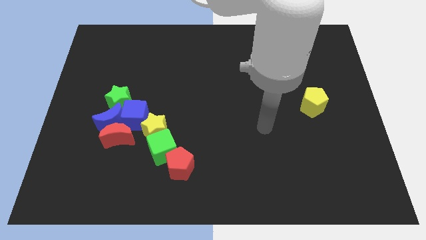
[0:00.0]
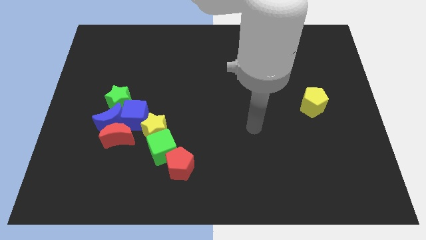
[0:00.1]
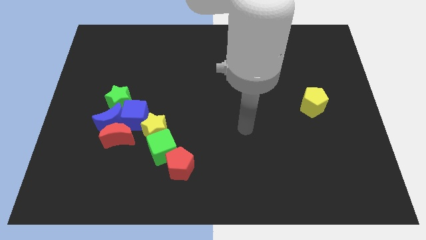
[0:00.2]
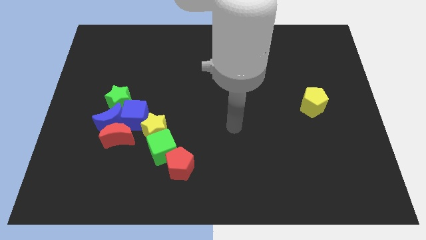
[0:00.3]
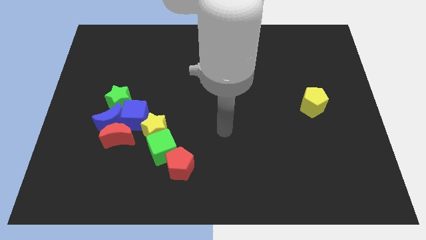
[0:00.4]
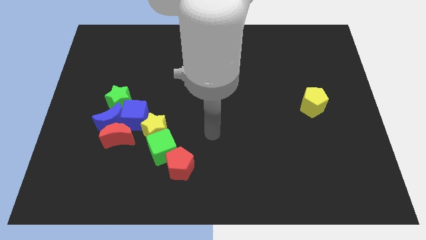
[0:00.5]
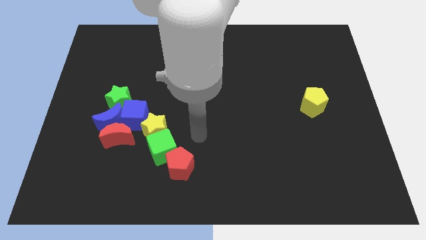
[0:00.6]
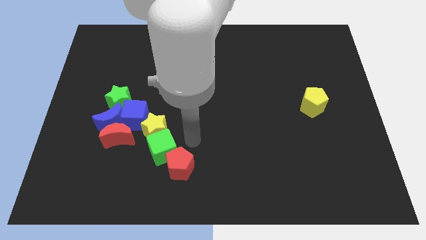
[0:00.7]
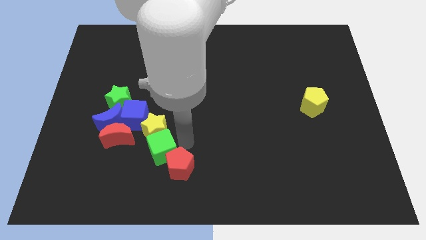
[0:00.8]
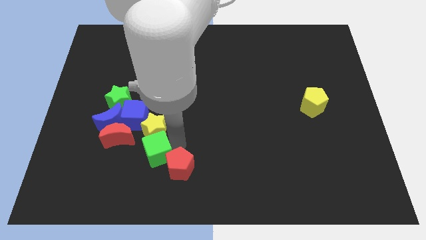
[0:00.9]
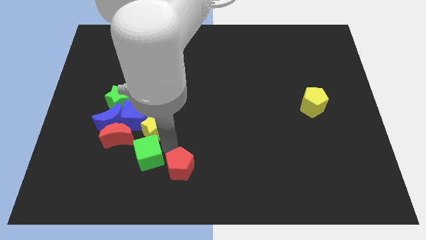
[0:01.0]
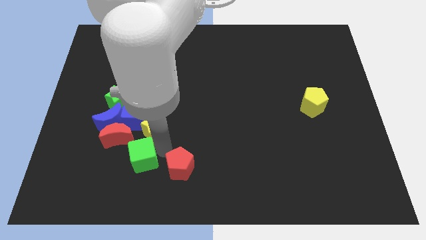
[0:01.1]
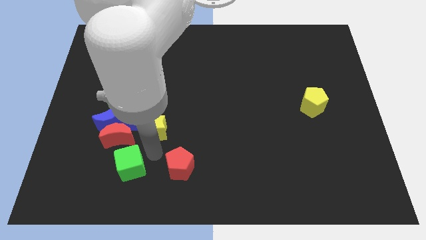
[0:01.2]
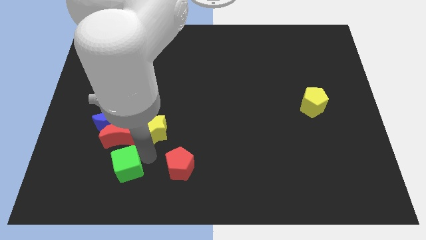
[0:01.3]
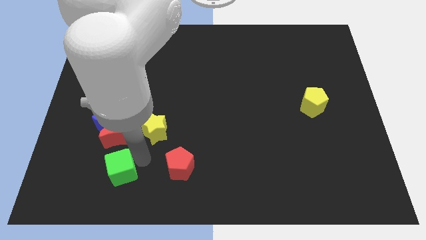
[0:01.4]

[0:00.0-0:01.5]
move the green cube away from the yellow star and red pentagon

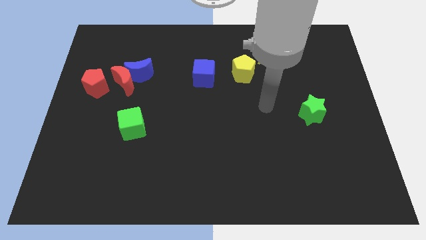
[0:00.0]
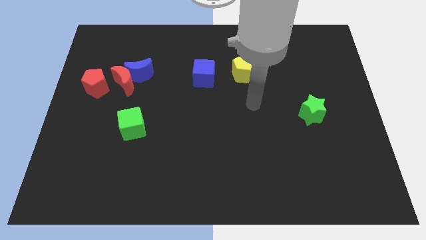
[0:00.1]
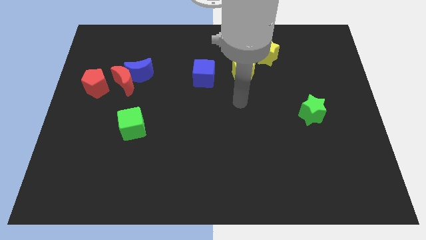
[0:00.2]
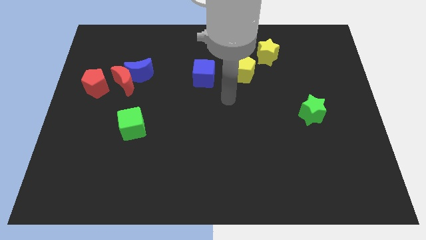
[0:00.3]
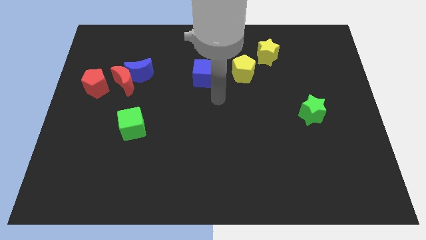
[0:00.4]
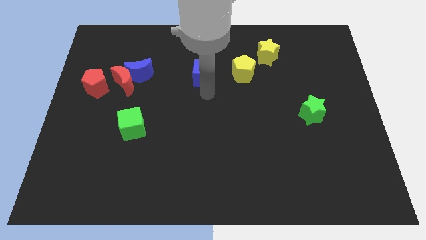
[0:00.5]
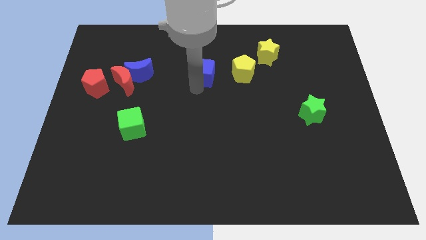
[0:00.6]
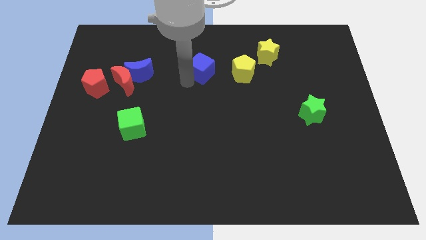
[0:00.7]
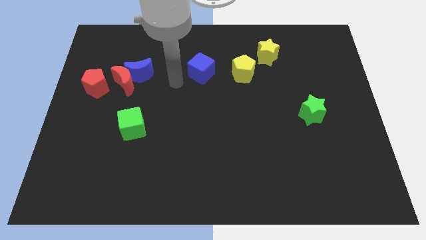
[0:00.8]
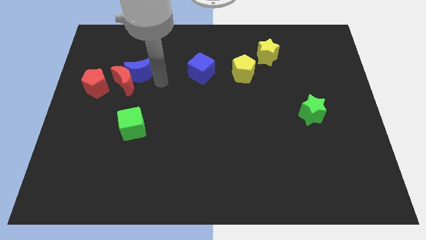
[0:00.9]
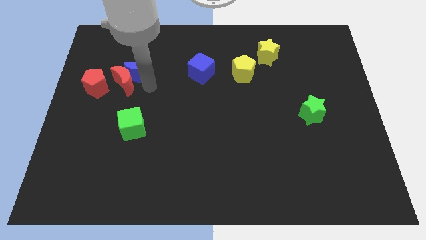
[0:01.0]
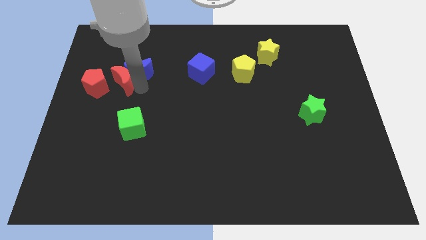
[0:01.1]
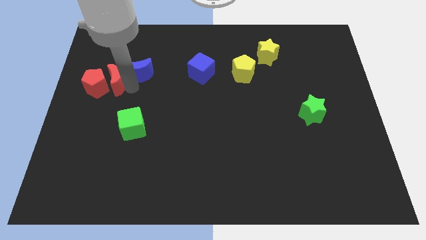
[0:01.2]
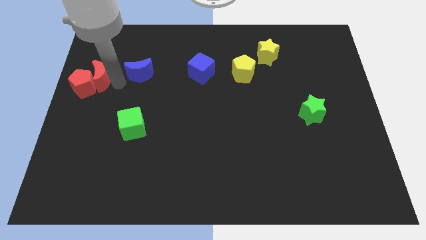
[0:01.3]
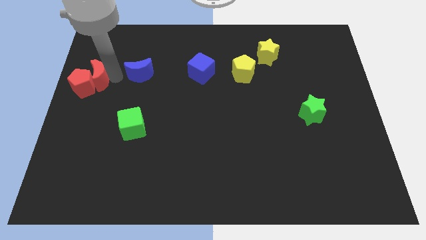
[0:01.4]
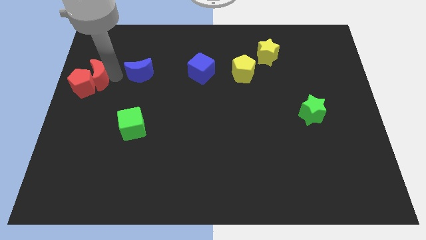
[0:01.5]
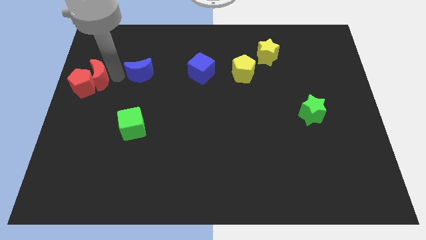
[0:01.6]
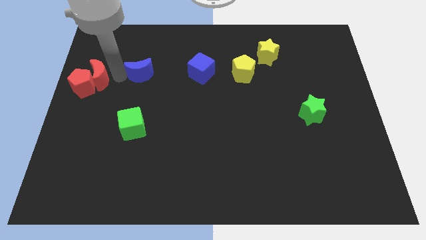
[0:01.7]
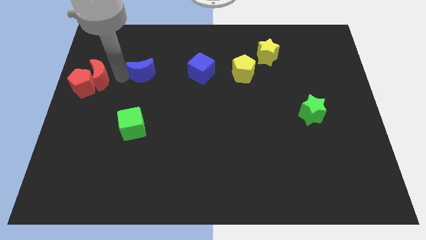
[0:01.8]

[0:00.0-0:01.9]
separate the blue moon from the red moon

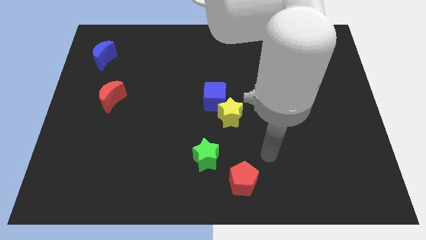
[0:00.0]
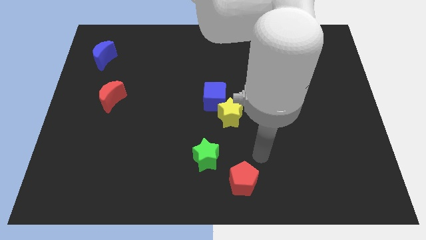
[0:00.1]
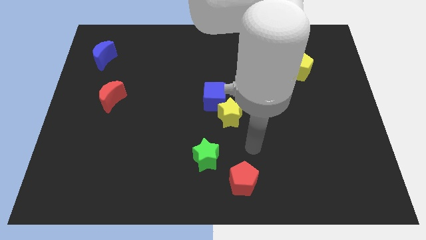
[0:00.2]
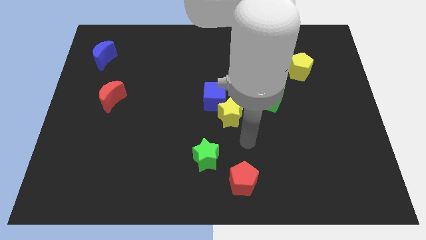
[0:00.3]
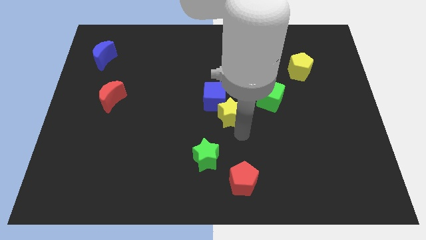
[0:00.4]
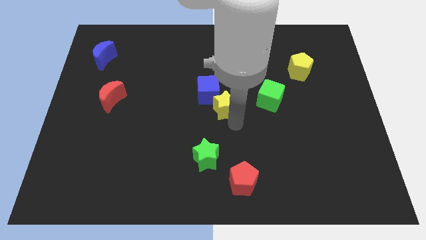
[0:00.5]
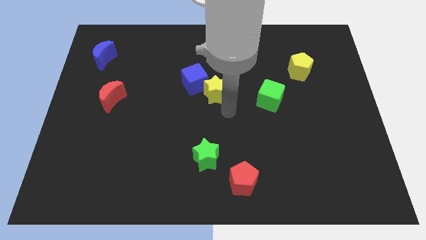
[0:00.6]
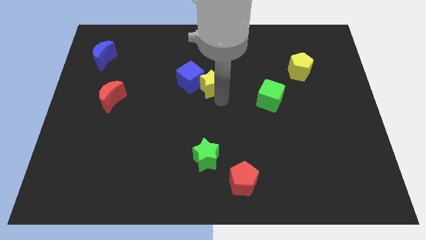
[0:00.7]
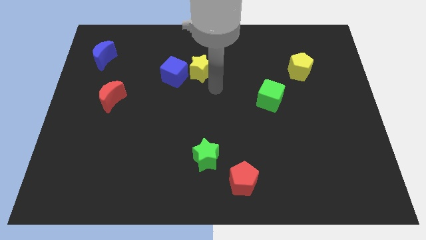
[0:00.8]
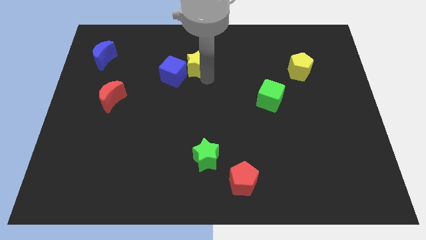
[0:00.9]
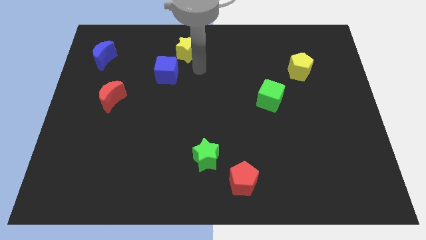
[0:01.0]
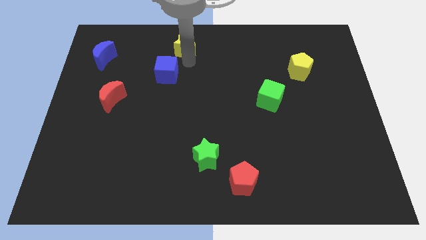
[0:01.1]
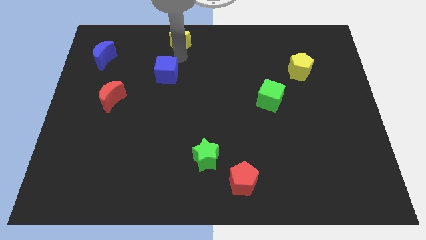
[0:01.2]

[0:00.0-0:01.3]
pull the blue cube apart from the yellow star

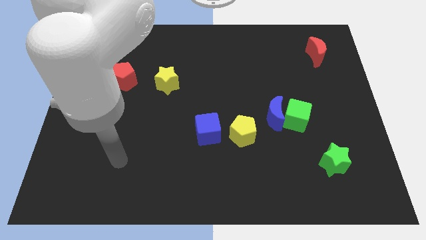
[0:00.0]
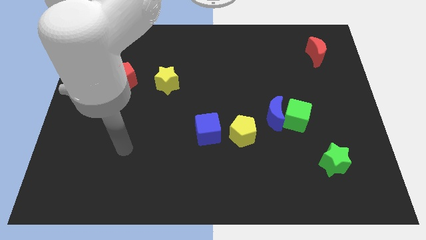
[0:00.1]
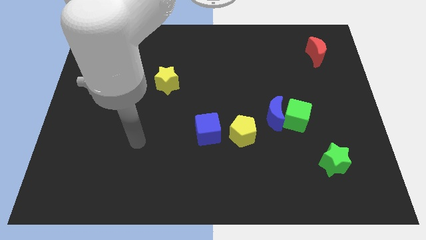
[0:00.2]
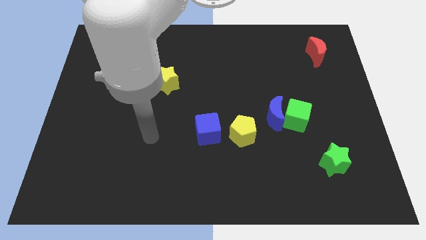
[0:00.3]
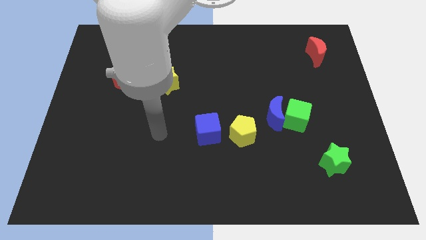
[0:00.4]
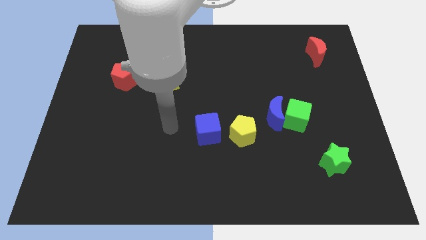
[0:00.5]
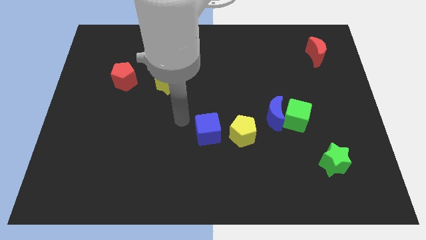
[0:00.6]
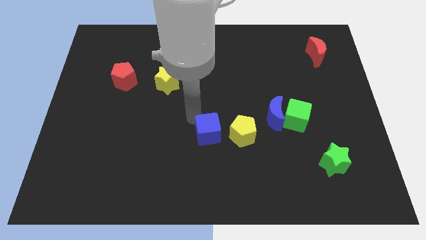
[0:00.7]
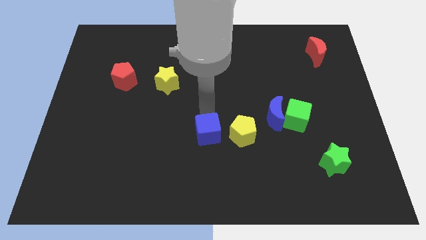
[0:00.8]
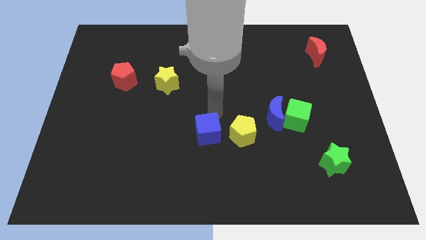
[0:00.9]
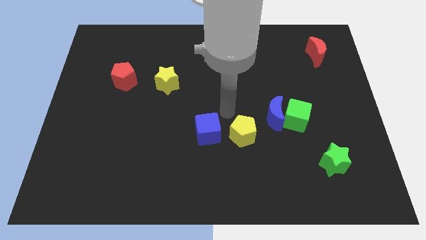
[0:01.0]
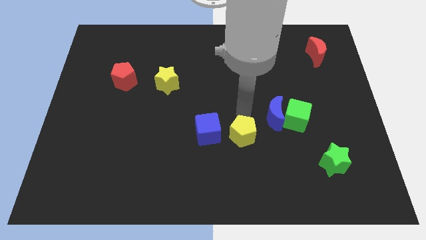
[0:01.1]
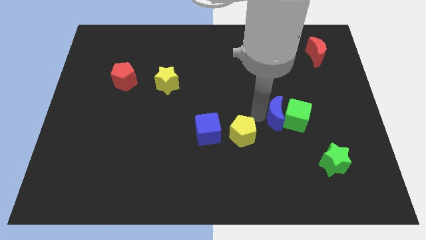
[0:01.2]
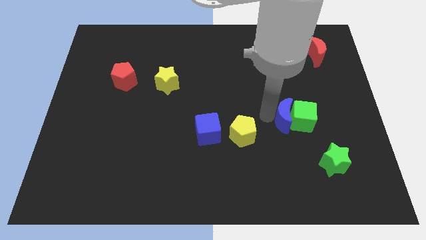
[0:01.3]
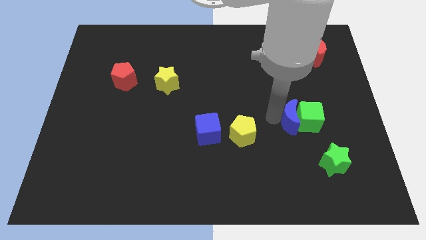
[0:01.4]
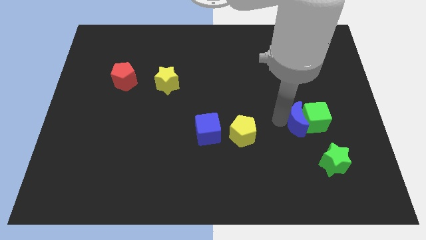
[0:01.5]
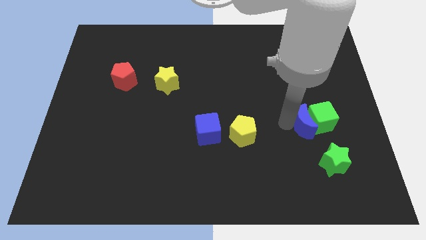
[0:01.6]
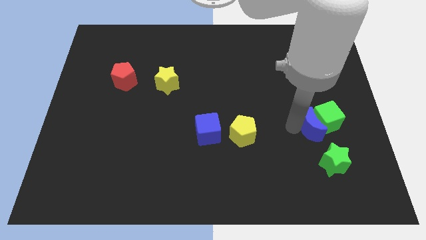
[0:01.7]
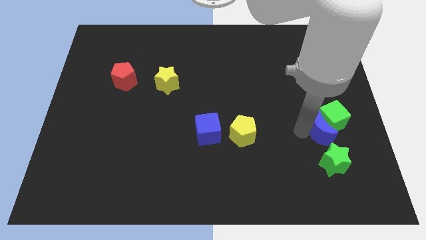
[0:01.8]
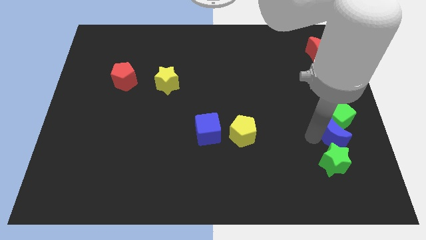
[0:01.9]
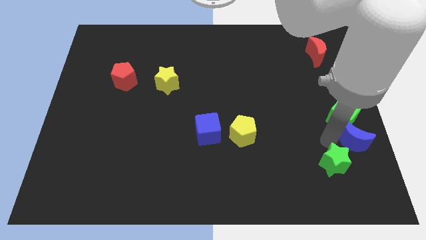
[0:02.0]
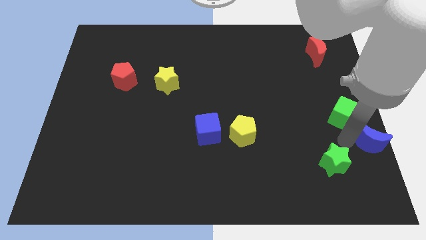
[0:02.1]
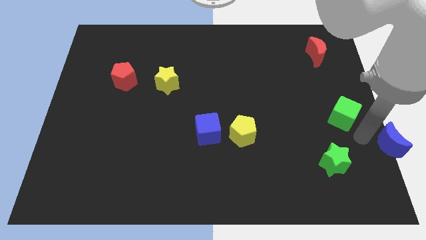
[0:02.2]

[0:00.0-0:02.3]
move the green cube away from the blue moon

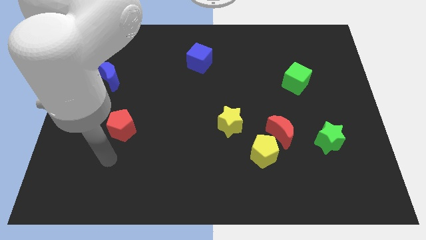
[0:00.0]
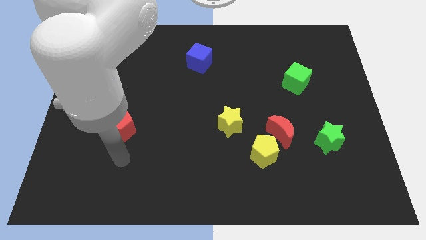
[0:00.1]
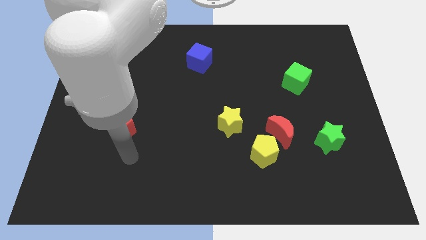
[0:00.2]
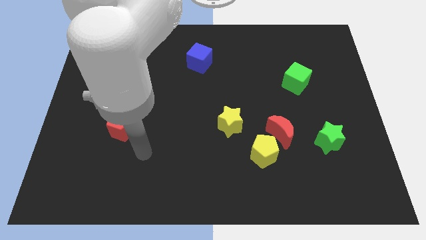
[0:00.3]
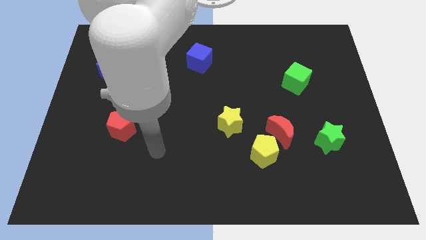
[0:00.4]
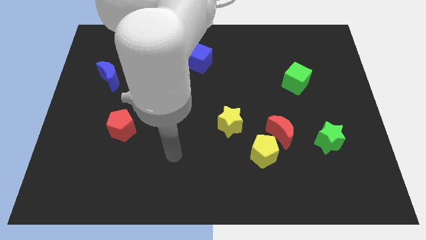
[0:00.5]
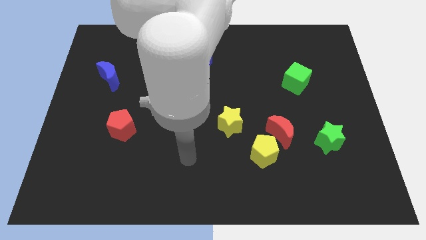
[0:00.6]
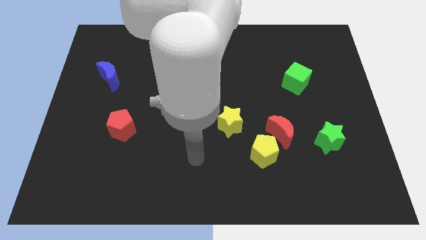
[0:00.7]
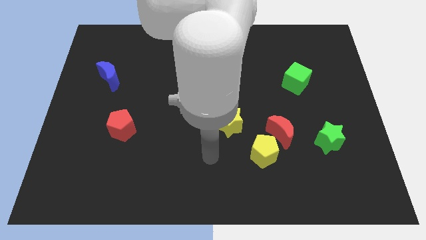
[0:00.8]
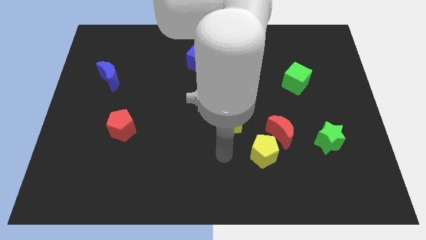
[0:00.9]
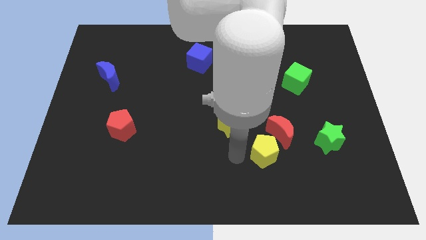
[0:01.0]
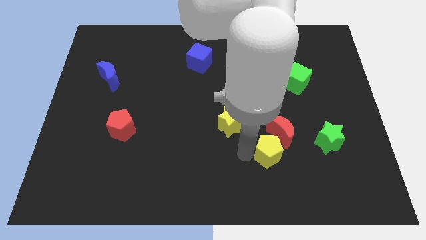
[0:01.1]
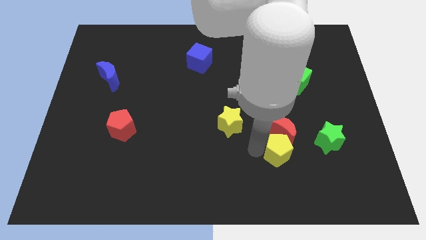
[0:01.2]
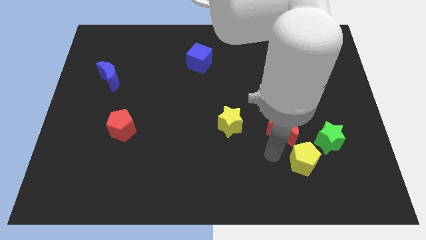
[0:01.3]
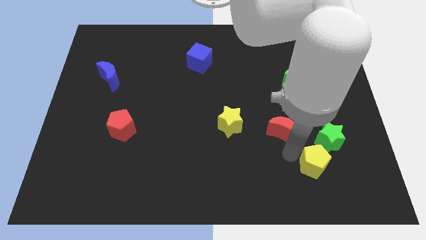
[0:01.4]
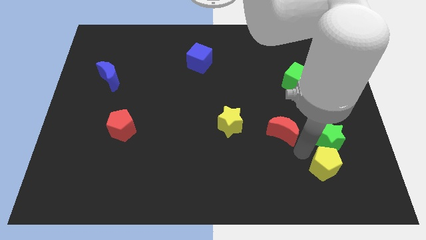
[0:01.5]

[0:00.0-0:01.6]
pull the red moon apart from the yellow pentagon

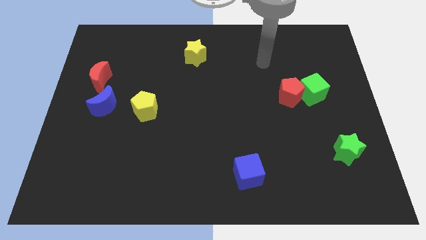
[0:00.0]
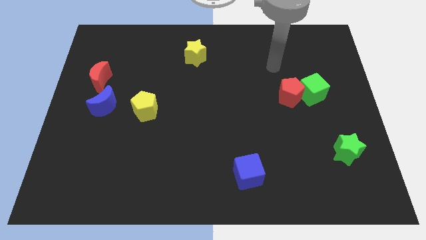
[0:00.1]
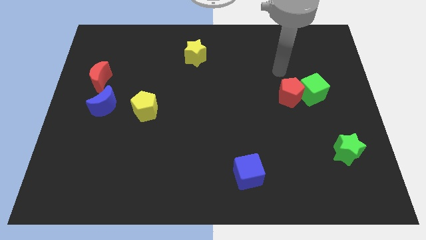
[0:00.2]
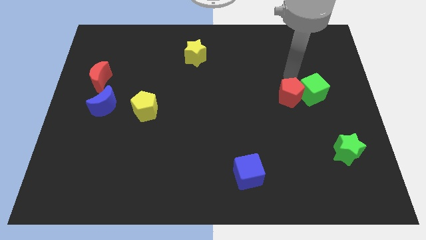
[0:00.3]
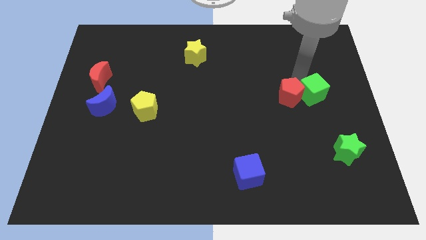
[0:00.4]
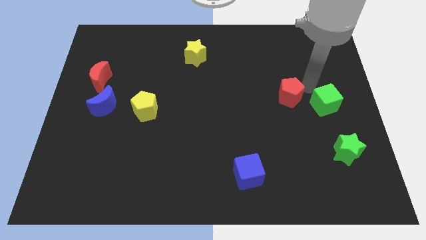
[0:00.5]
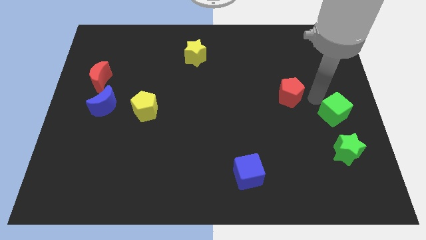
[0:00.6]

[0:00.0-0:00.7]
pull the red pentagon apart from the green cube
